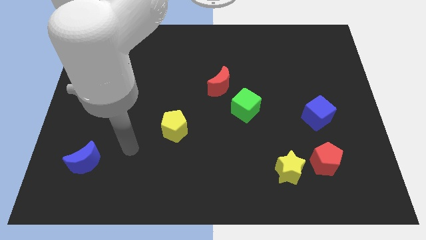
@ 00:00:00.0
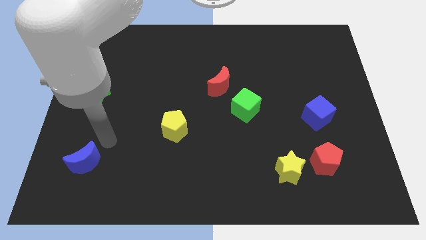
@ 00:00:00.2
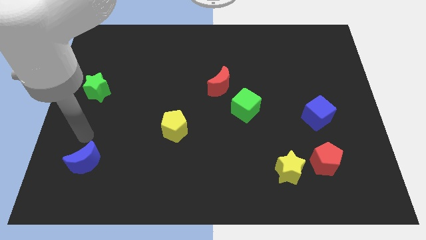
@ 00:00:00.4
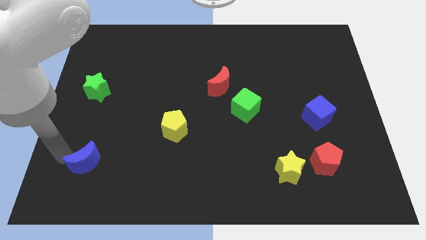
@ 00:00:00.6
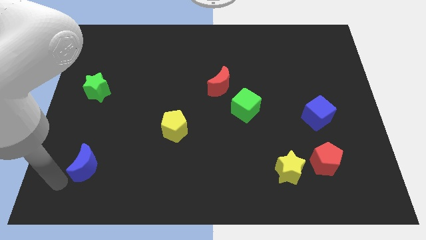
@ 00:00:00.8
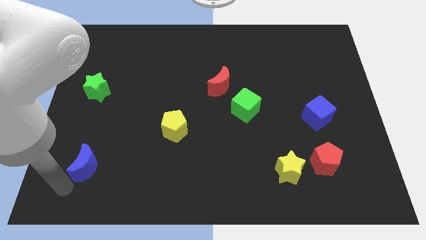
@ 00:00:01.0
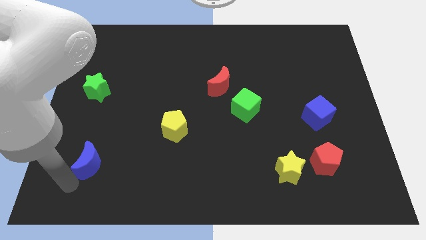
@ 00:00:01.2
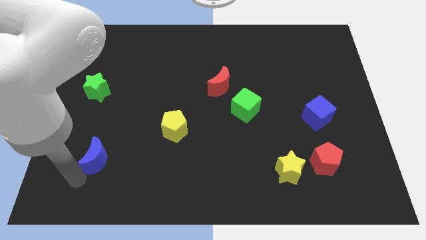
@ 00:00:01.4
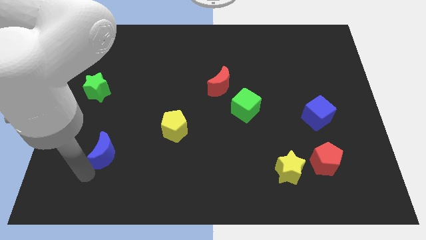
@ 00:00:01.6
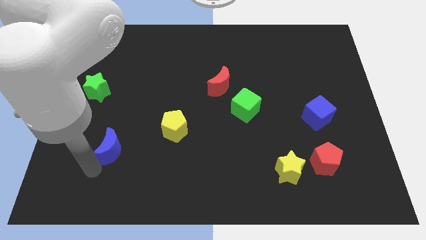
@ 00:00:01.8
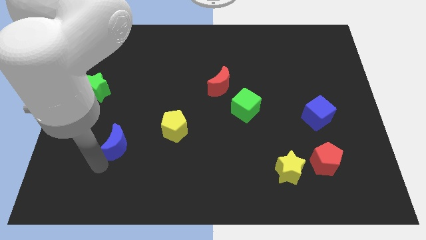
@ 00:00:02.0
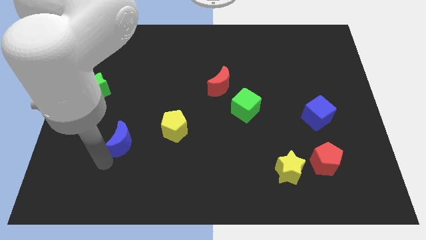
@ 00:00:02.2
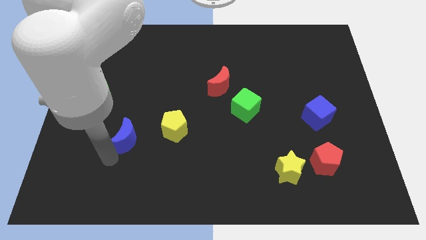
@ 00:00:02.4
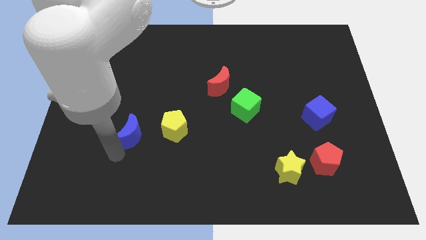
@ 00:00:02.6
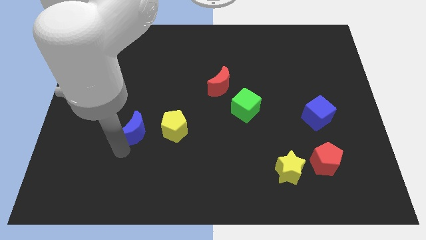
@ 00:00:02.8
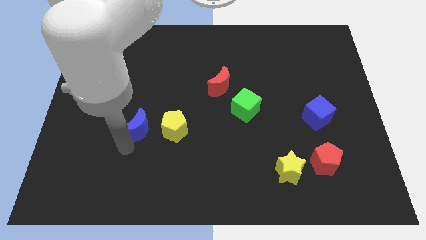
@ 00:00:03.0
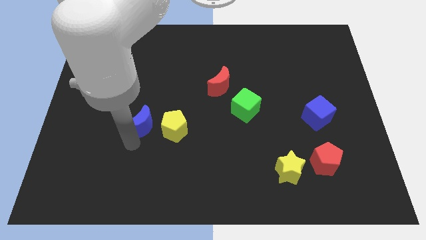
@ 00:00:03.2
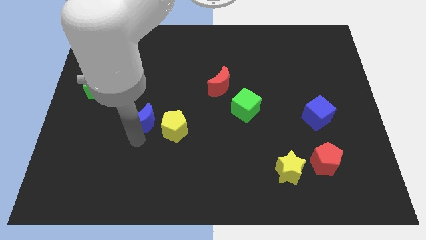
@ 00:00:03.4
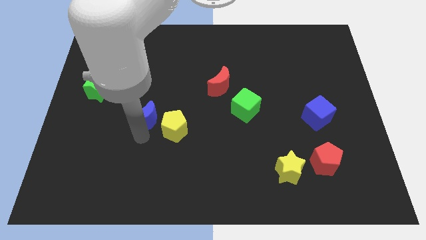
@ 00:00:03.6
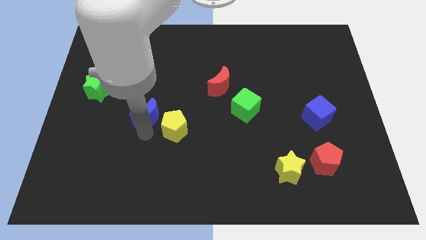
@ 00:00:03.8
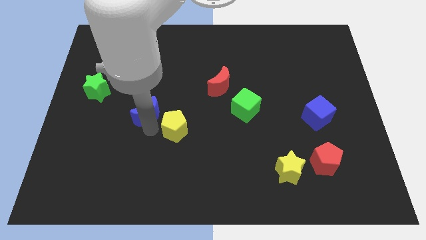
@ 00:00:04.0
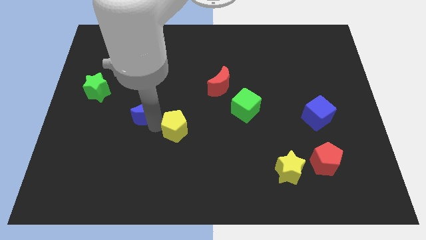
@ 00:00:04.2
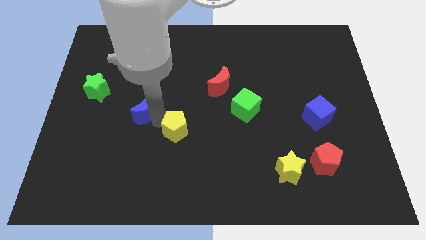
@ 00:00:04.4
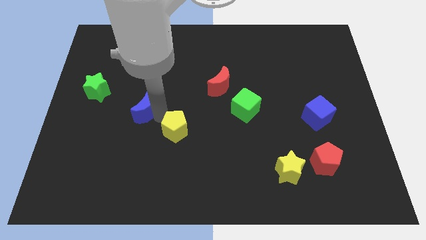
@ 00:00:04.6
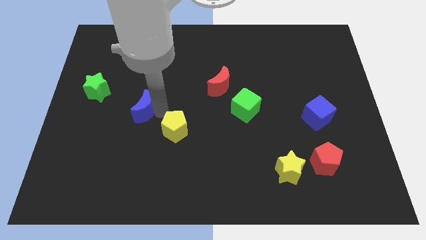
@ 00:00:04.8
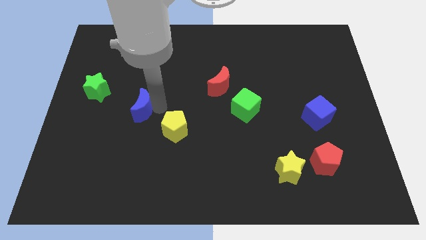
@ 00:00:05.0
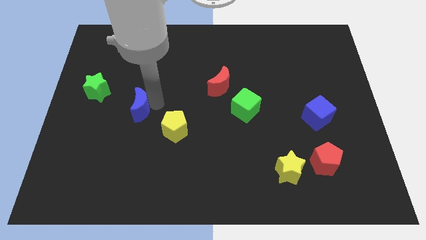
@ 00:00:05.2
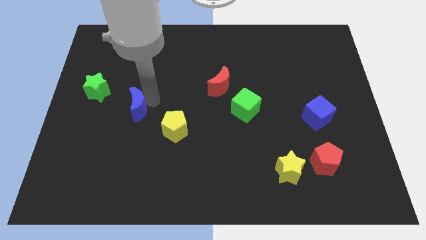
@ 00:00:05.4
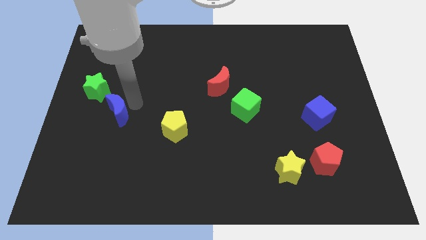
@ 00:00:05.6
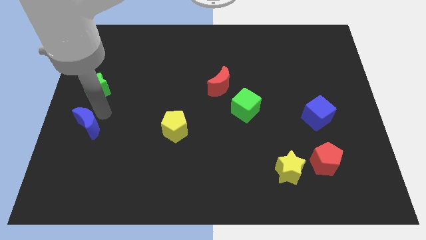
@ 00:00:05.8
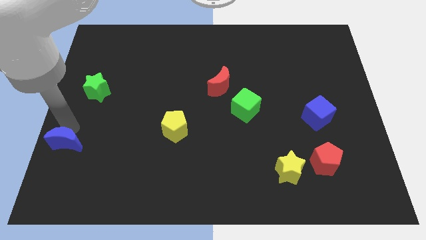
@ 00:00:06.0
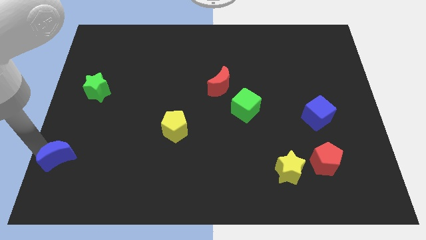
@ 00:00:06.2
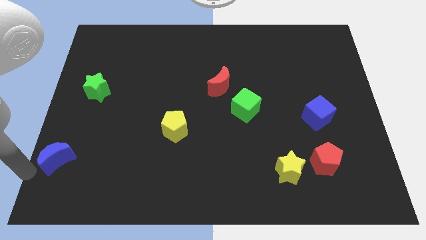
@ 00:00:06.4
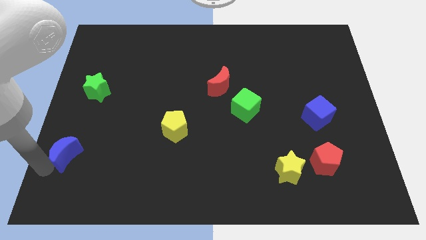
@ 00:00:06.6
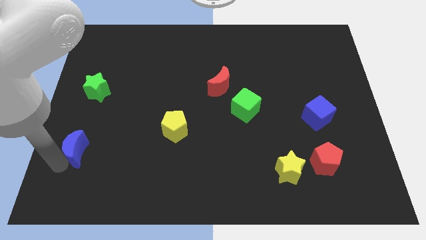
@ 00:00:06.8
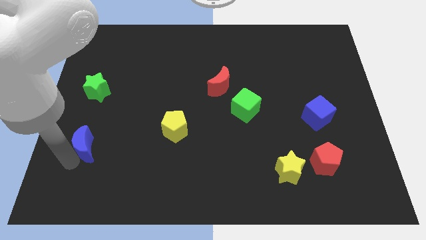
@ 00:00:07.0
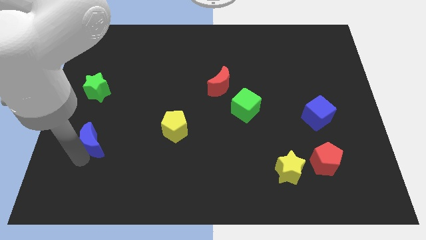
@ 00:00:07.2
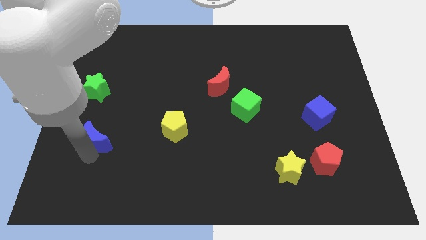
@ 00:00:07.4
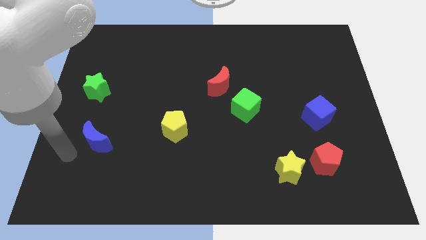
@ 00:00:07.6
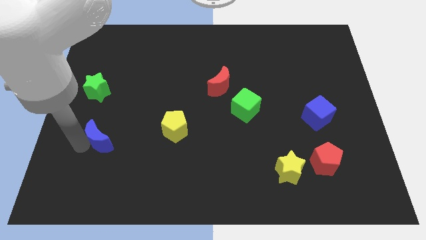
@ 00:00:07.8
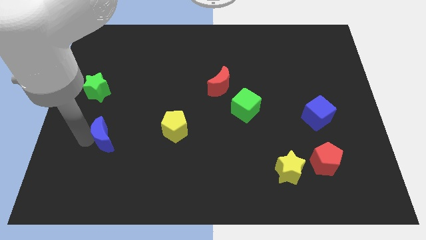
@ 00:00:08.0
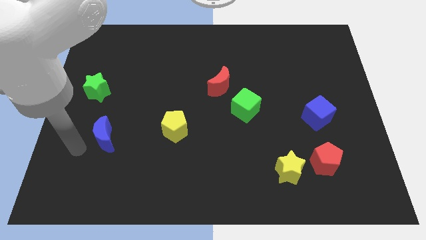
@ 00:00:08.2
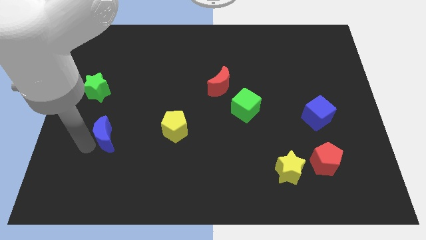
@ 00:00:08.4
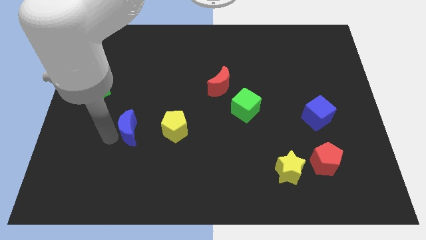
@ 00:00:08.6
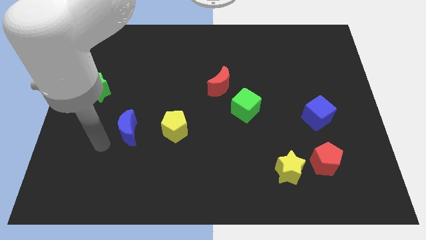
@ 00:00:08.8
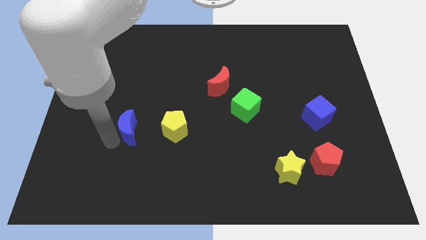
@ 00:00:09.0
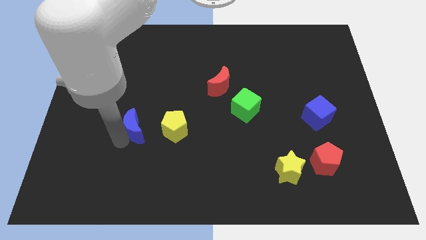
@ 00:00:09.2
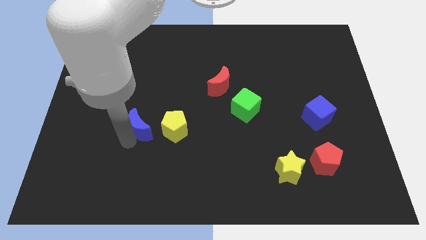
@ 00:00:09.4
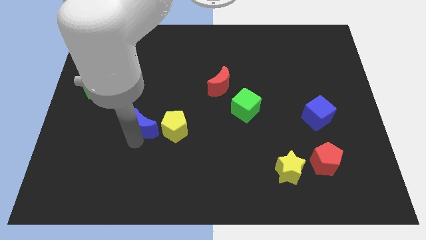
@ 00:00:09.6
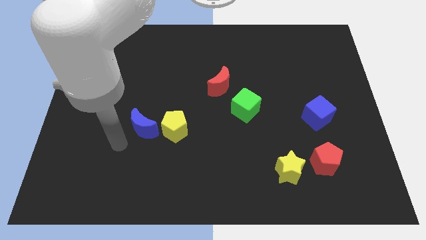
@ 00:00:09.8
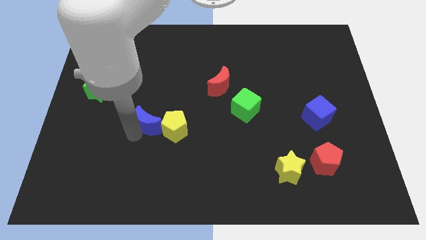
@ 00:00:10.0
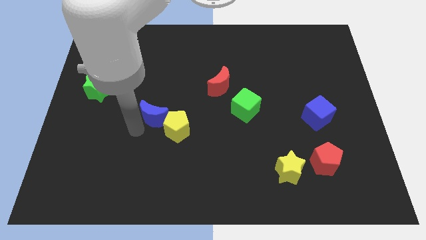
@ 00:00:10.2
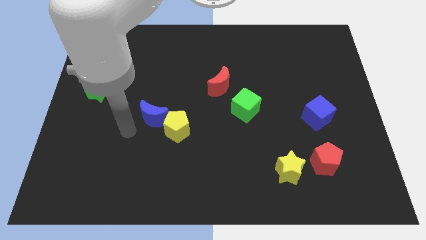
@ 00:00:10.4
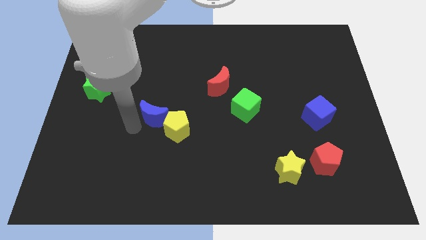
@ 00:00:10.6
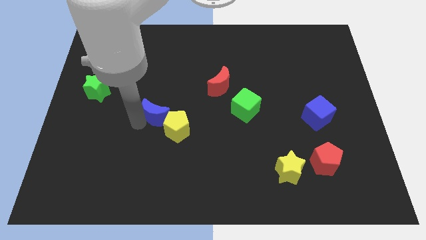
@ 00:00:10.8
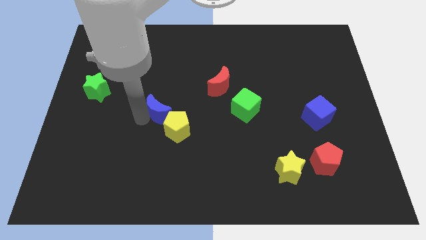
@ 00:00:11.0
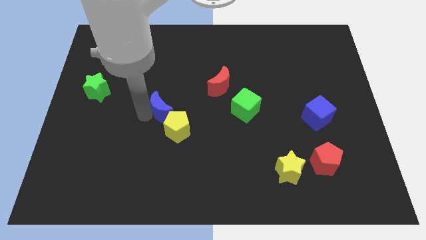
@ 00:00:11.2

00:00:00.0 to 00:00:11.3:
slide the blue moon to the middle
